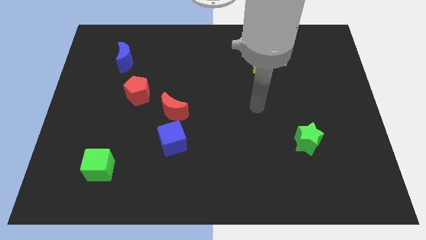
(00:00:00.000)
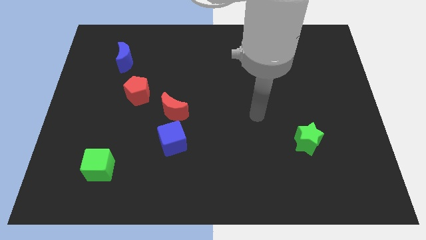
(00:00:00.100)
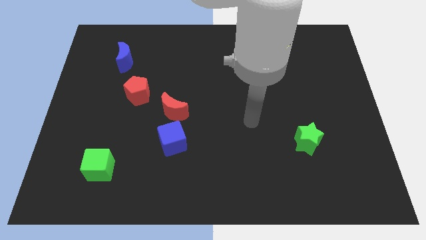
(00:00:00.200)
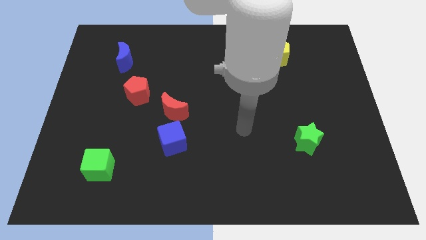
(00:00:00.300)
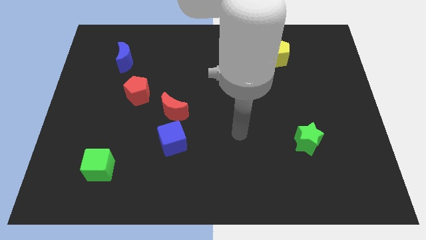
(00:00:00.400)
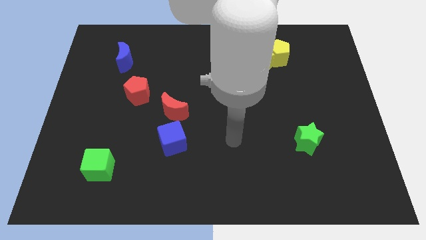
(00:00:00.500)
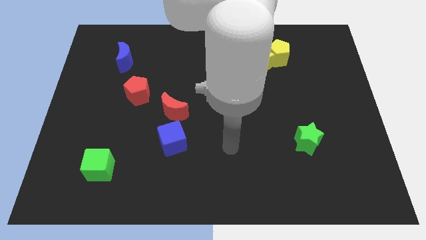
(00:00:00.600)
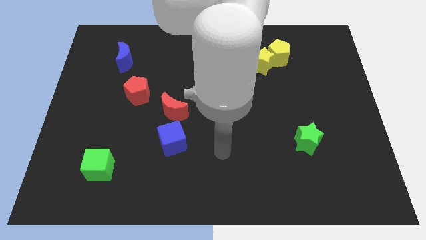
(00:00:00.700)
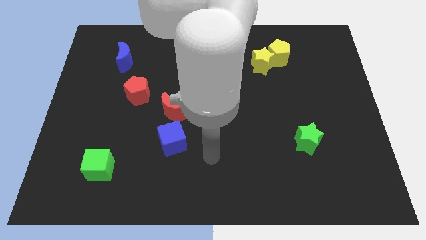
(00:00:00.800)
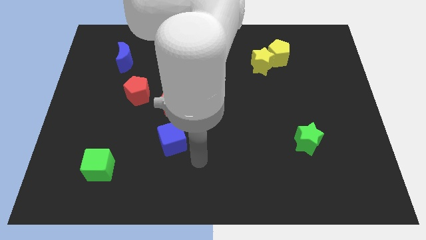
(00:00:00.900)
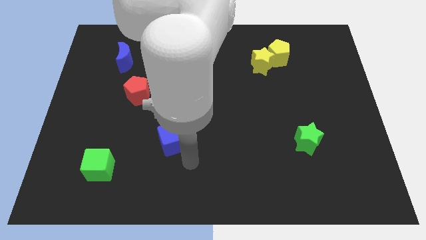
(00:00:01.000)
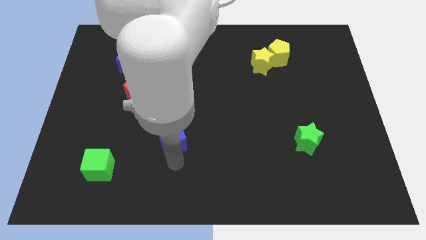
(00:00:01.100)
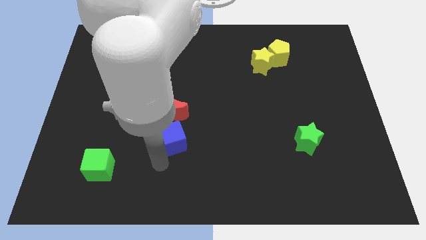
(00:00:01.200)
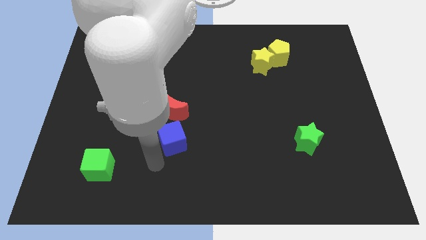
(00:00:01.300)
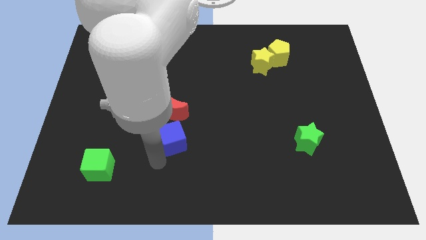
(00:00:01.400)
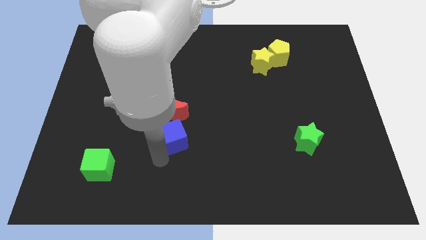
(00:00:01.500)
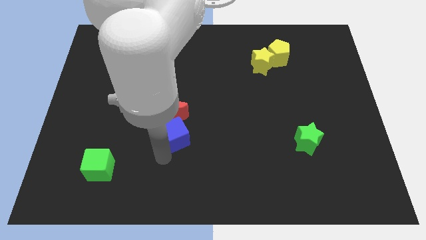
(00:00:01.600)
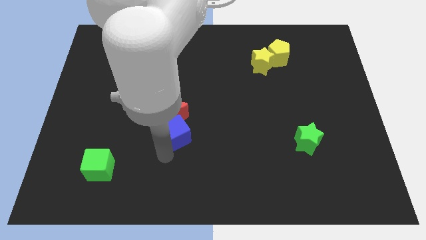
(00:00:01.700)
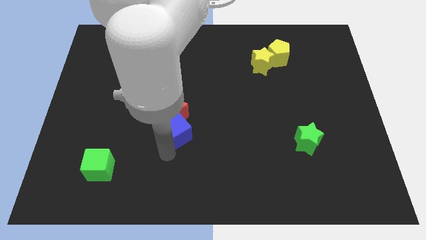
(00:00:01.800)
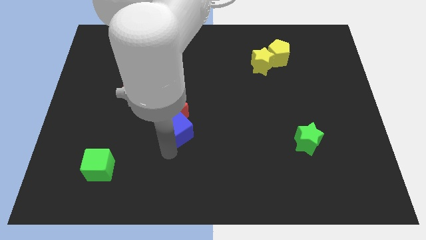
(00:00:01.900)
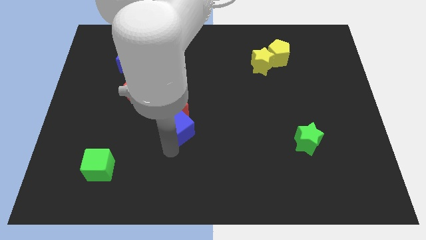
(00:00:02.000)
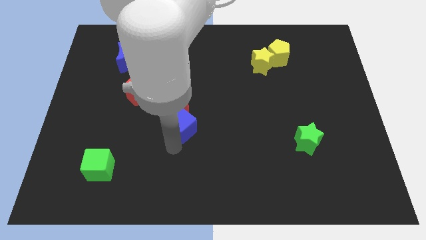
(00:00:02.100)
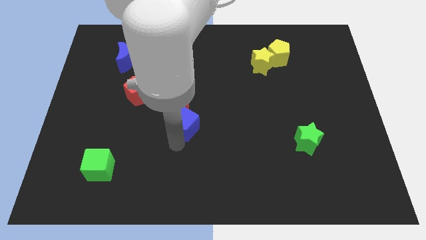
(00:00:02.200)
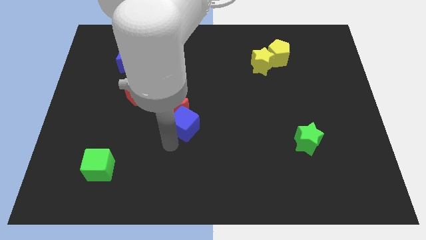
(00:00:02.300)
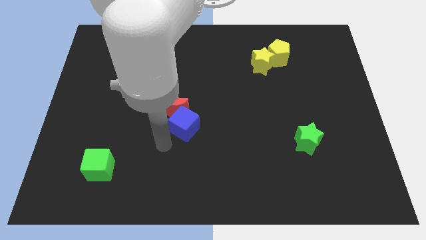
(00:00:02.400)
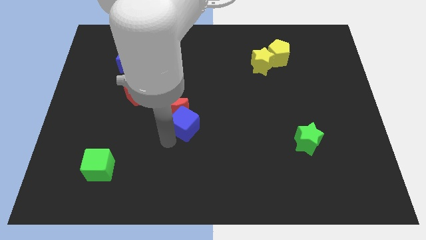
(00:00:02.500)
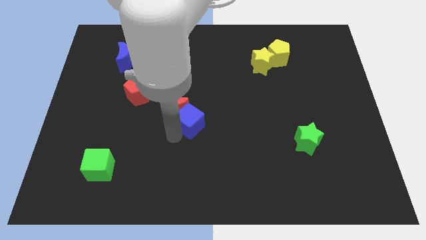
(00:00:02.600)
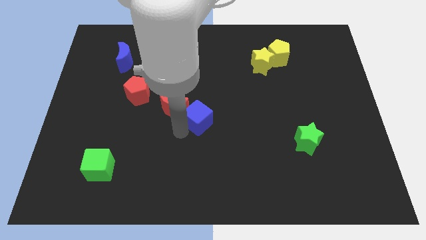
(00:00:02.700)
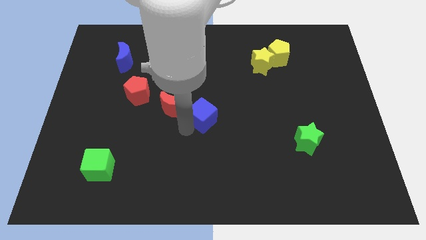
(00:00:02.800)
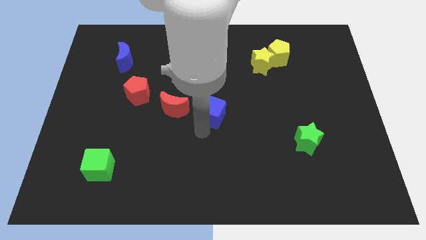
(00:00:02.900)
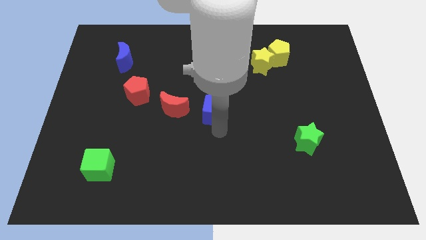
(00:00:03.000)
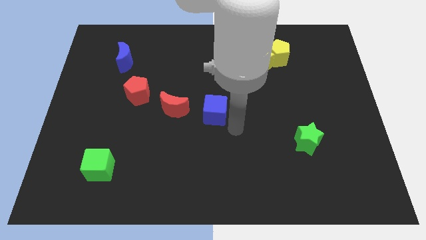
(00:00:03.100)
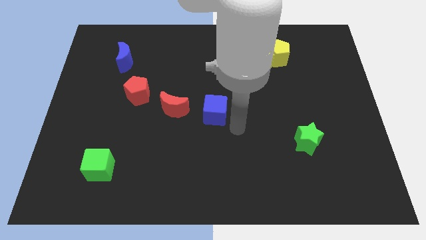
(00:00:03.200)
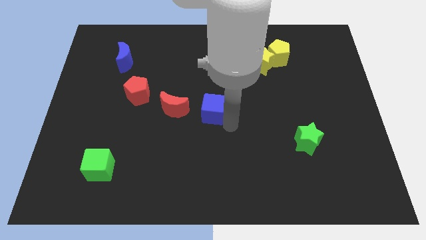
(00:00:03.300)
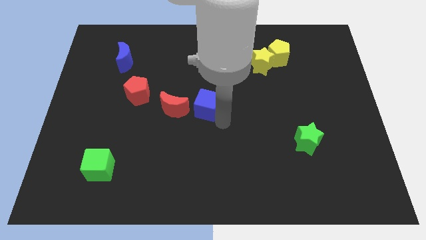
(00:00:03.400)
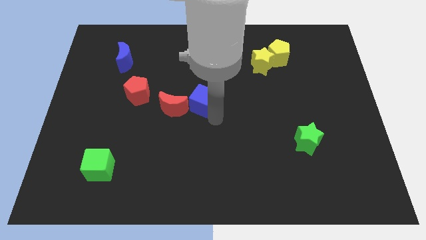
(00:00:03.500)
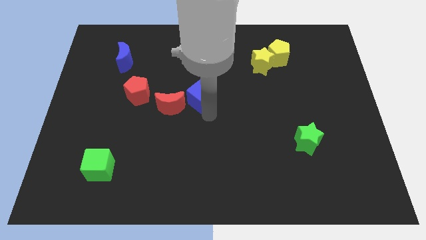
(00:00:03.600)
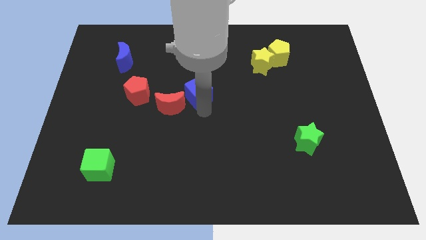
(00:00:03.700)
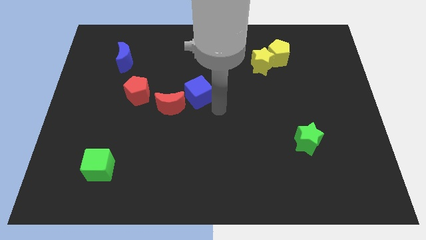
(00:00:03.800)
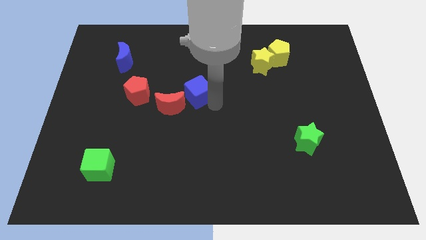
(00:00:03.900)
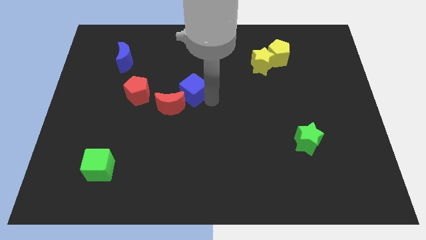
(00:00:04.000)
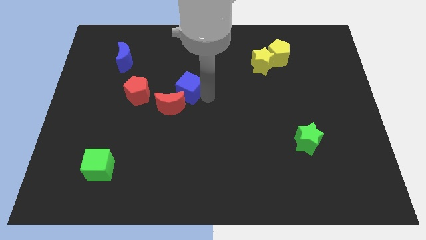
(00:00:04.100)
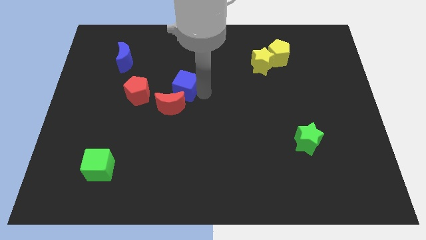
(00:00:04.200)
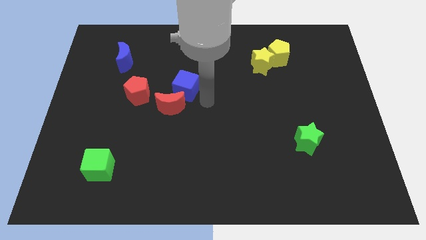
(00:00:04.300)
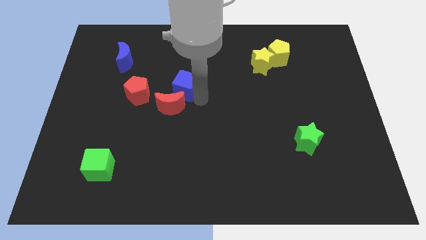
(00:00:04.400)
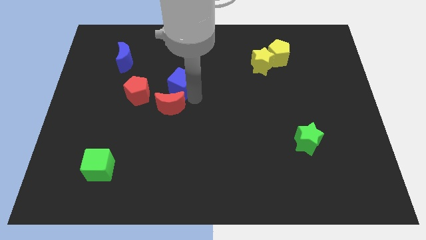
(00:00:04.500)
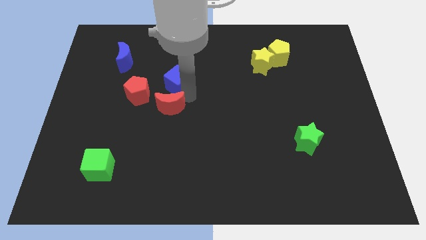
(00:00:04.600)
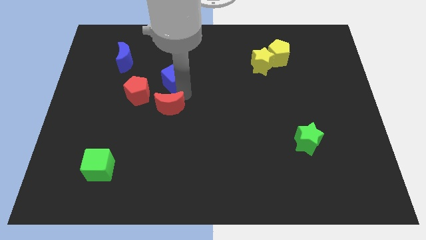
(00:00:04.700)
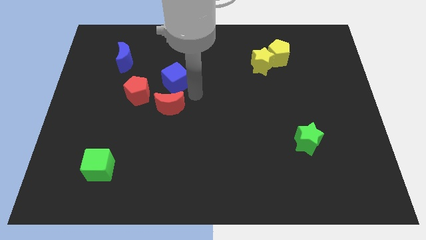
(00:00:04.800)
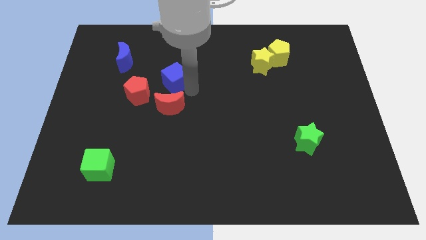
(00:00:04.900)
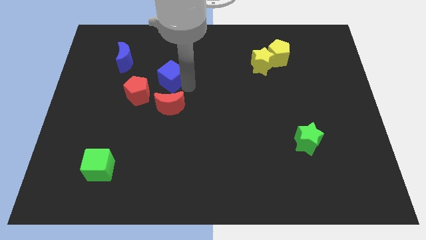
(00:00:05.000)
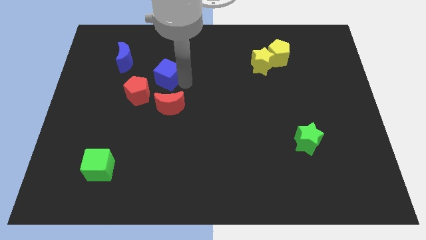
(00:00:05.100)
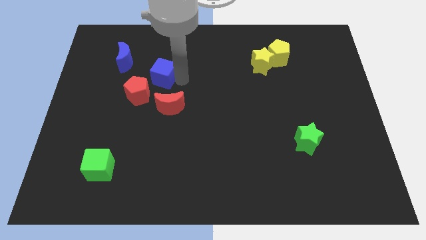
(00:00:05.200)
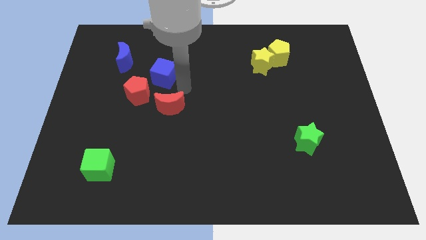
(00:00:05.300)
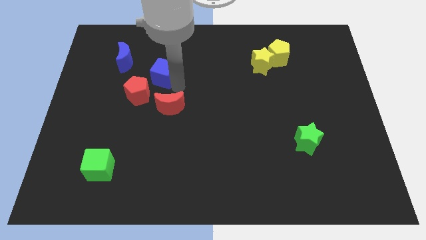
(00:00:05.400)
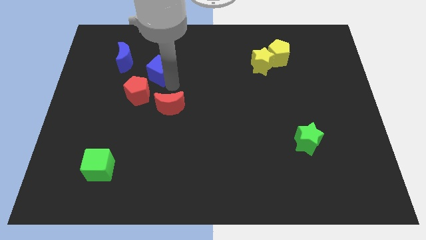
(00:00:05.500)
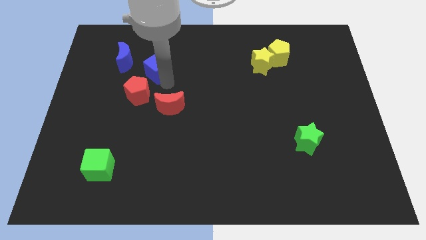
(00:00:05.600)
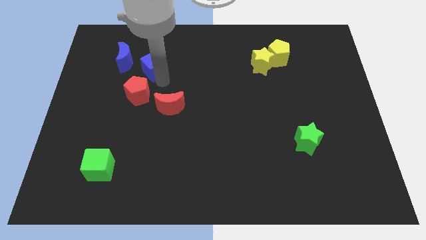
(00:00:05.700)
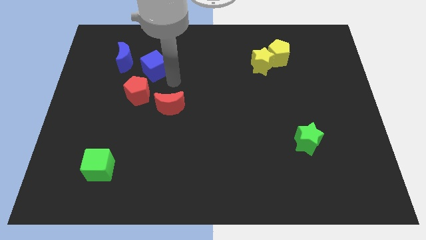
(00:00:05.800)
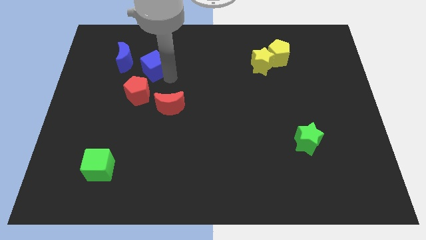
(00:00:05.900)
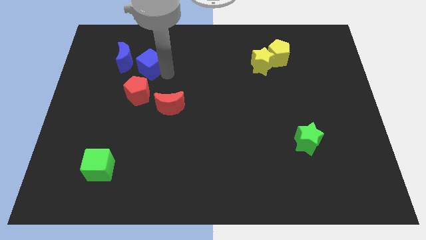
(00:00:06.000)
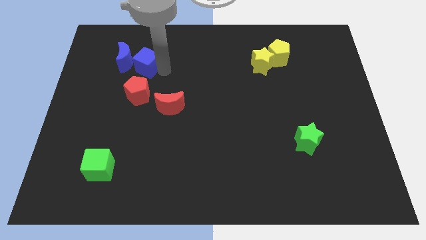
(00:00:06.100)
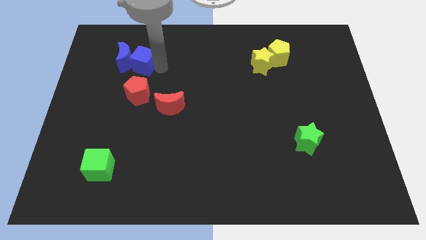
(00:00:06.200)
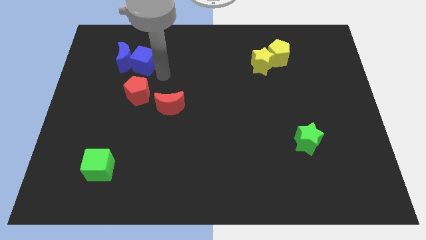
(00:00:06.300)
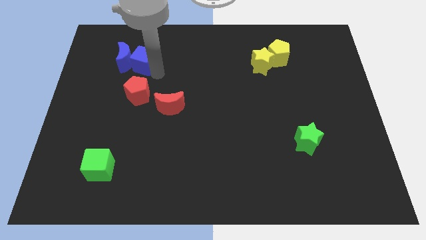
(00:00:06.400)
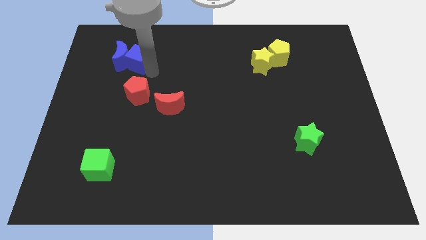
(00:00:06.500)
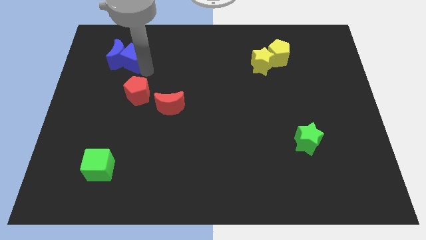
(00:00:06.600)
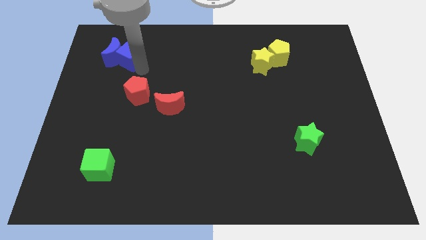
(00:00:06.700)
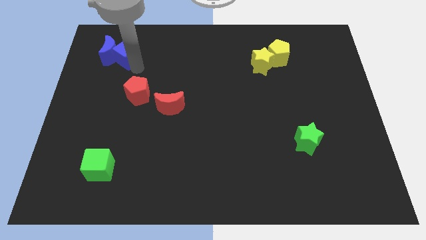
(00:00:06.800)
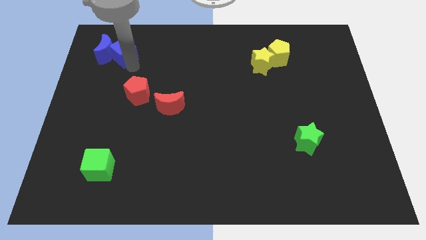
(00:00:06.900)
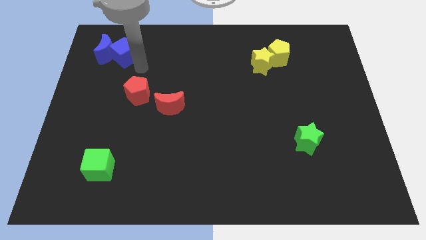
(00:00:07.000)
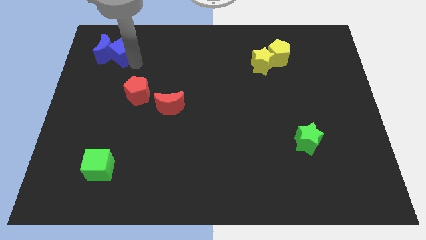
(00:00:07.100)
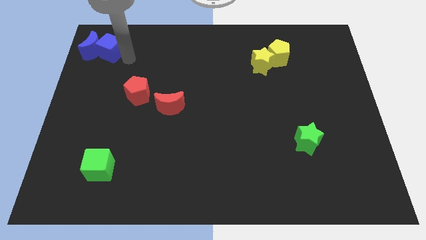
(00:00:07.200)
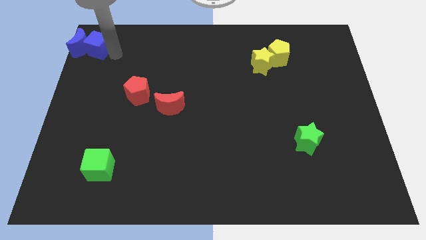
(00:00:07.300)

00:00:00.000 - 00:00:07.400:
put the blue cube to the top left corner
